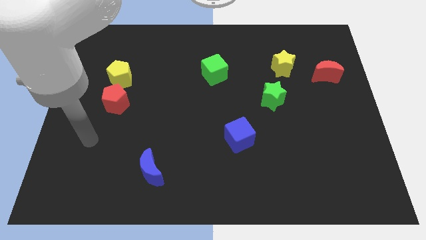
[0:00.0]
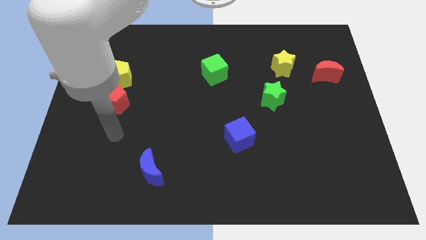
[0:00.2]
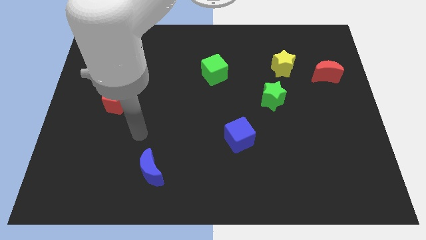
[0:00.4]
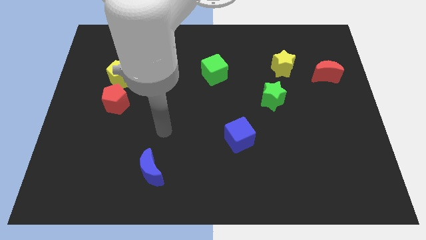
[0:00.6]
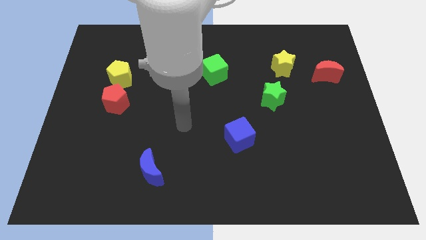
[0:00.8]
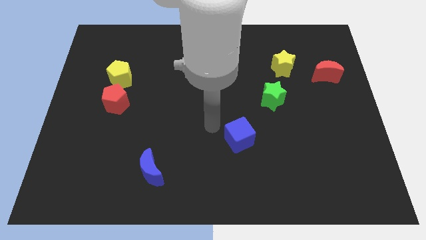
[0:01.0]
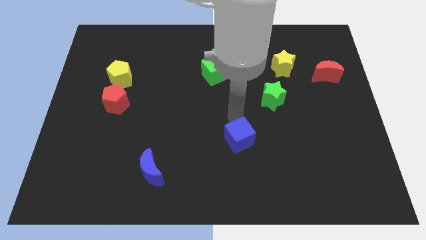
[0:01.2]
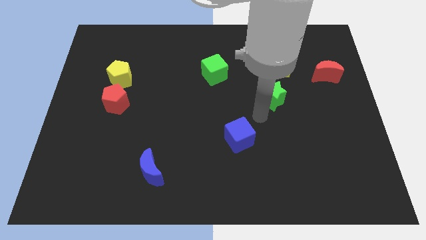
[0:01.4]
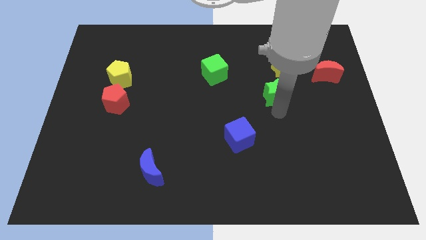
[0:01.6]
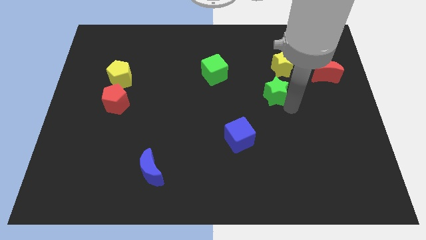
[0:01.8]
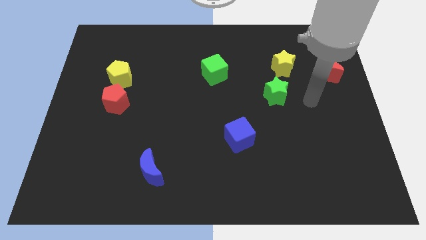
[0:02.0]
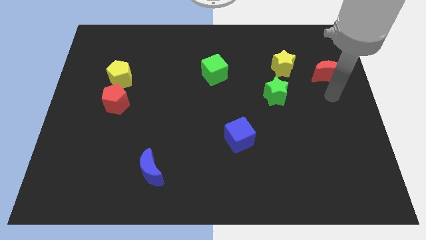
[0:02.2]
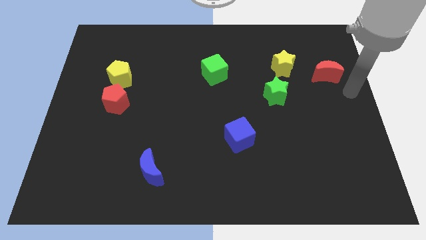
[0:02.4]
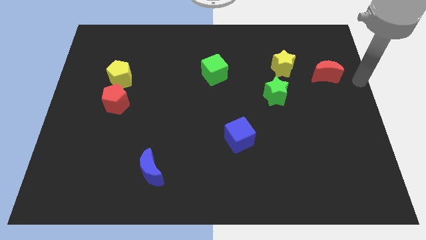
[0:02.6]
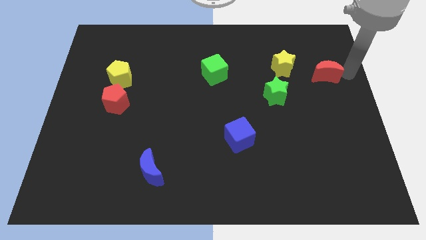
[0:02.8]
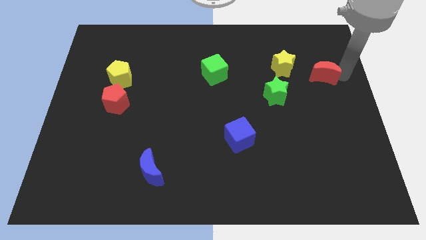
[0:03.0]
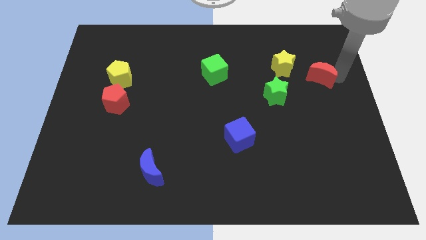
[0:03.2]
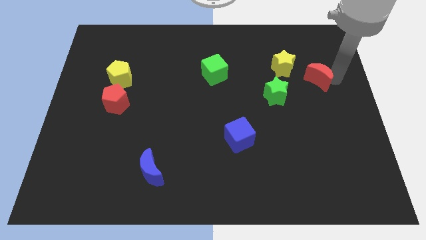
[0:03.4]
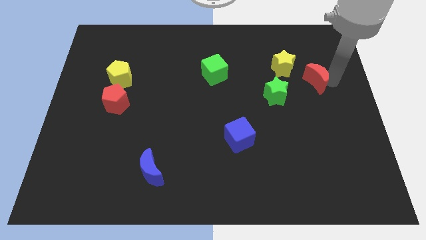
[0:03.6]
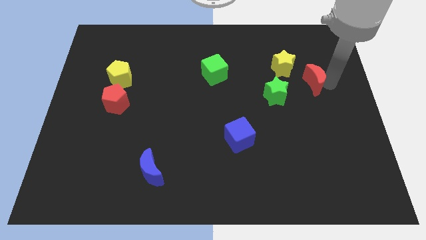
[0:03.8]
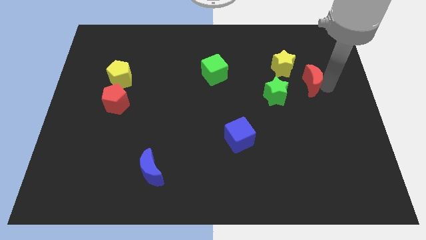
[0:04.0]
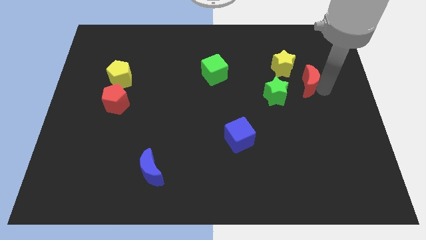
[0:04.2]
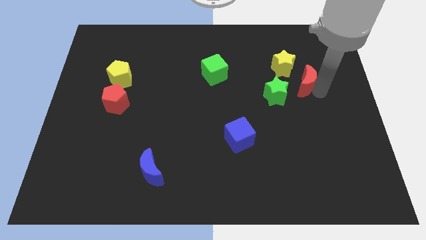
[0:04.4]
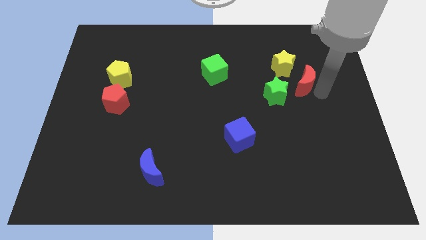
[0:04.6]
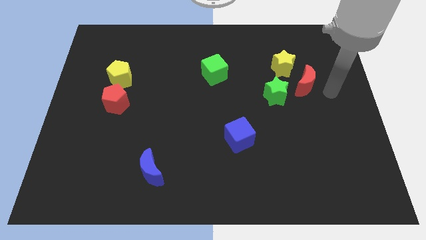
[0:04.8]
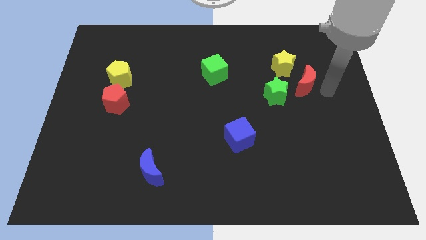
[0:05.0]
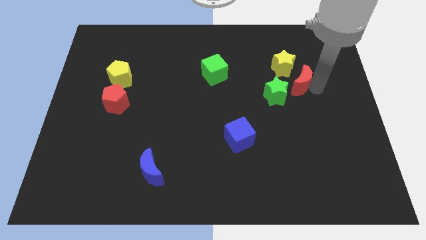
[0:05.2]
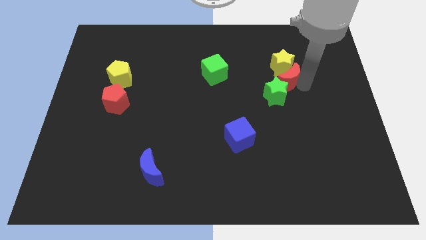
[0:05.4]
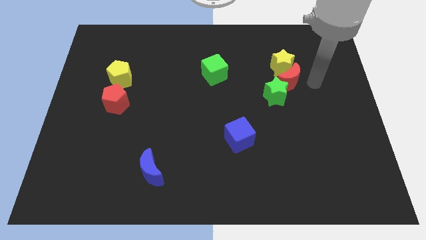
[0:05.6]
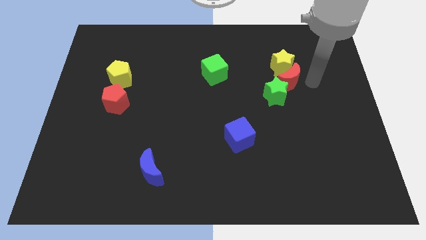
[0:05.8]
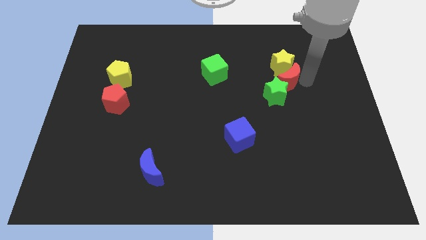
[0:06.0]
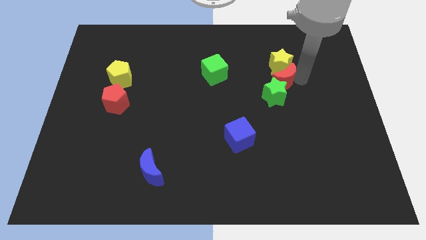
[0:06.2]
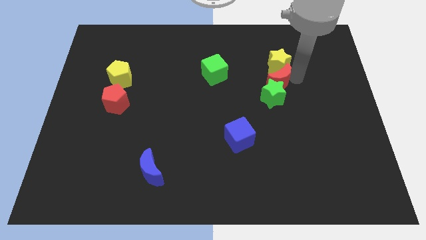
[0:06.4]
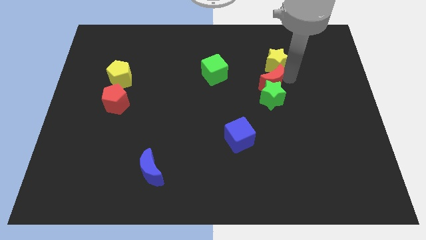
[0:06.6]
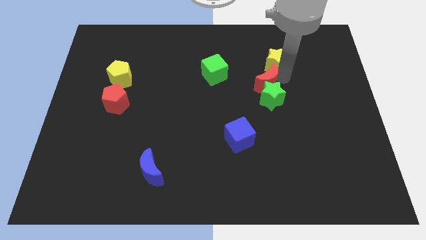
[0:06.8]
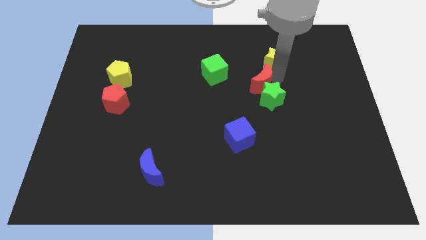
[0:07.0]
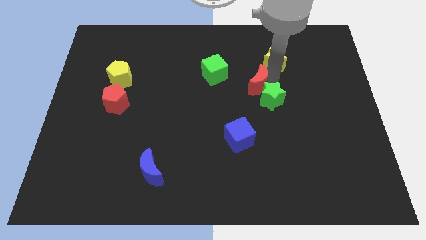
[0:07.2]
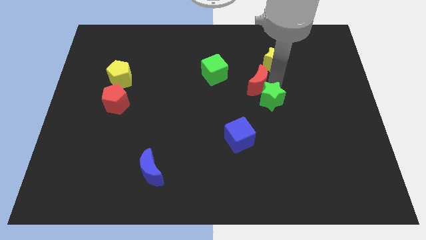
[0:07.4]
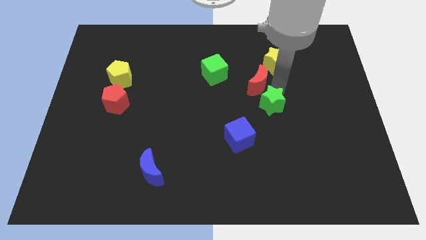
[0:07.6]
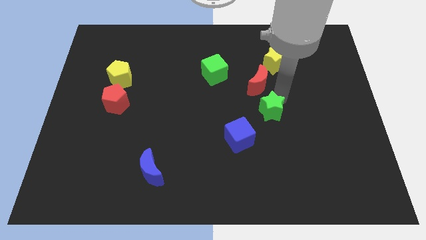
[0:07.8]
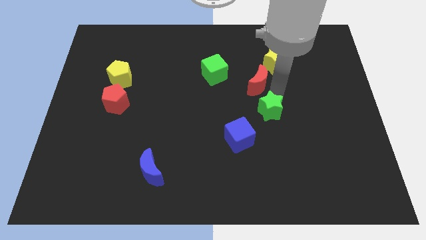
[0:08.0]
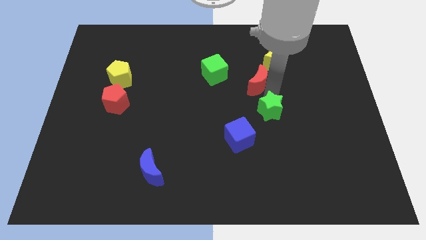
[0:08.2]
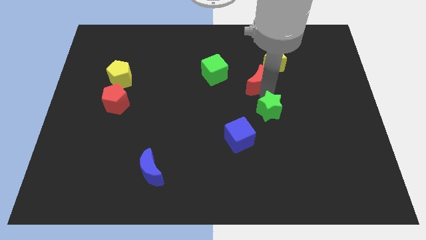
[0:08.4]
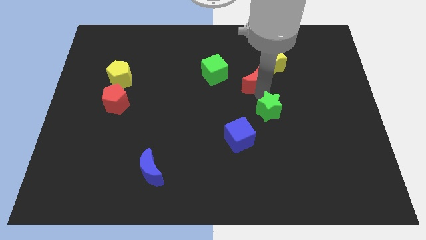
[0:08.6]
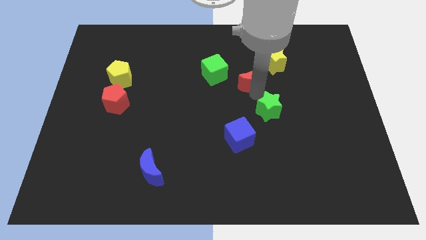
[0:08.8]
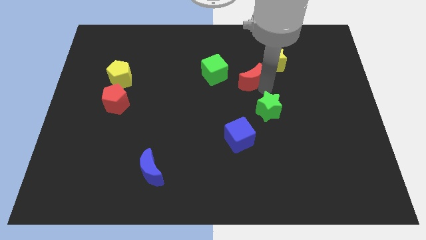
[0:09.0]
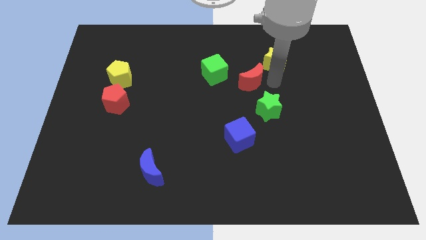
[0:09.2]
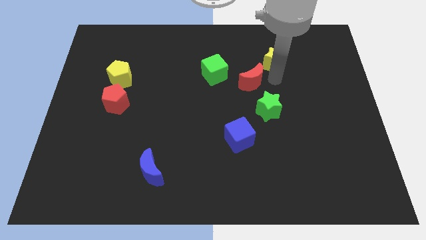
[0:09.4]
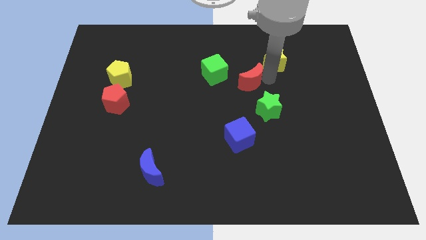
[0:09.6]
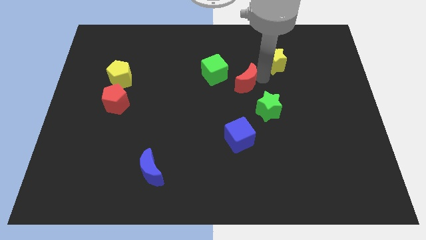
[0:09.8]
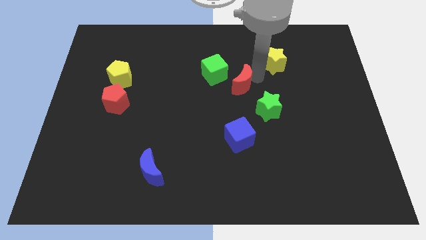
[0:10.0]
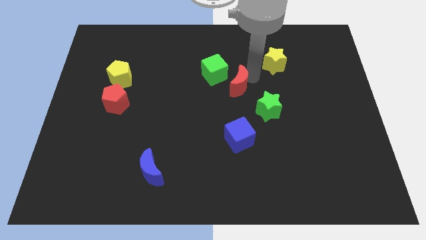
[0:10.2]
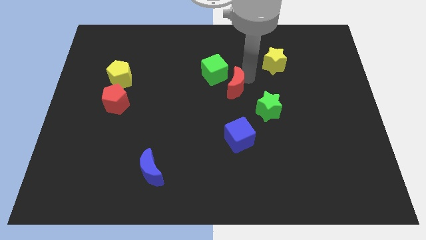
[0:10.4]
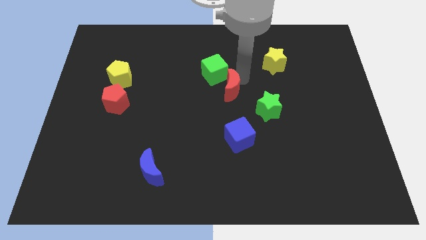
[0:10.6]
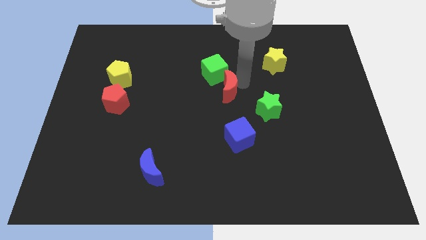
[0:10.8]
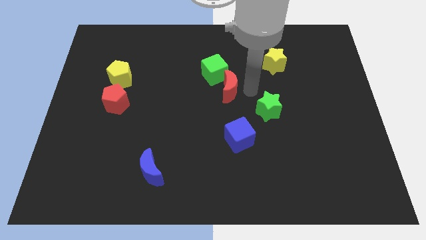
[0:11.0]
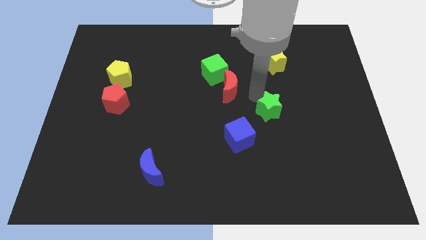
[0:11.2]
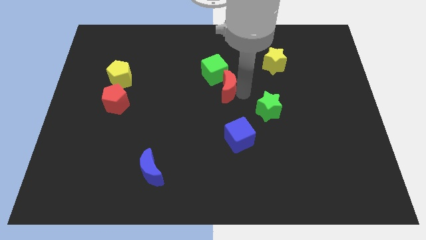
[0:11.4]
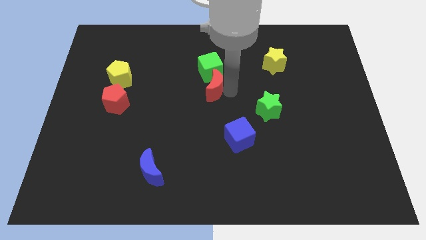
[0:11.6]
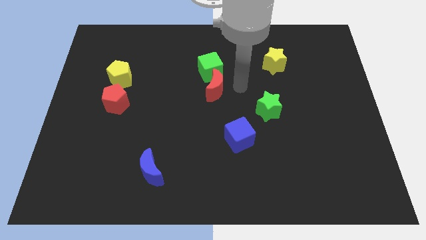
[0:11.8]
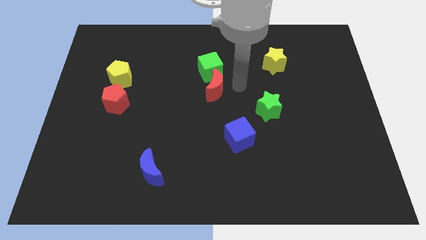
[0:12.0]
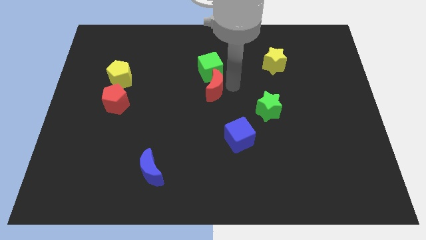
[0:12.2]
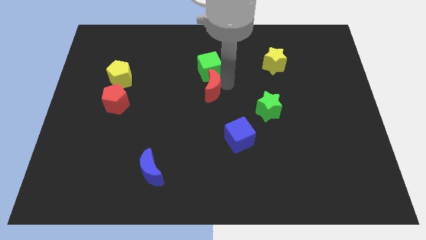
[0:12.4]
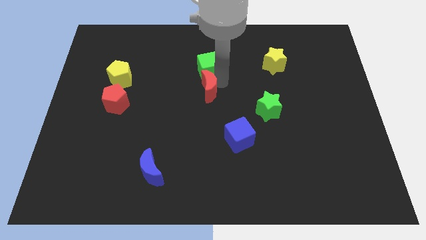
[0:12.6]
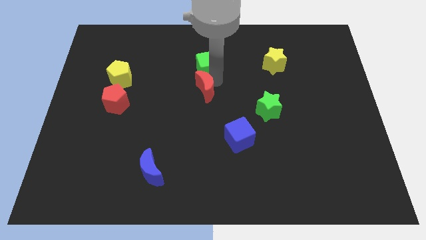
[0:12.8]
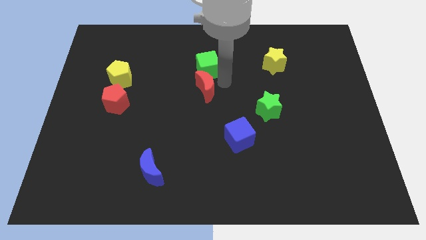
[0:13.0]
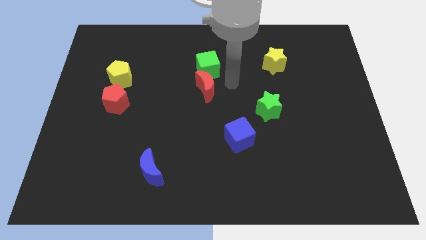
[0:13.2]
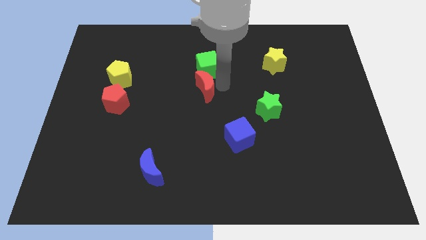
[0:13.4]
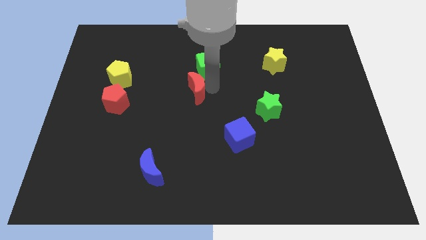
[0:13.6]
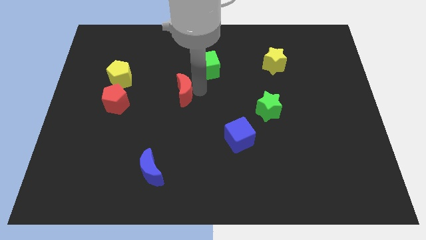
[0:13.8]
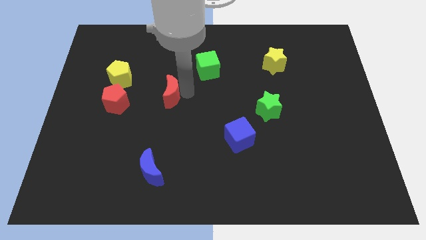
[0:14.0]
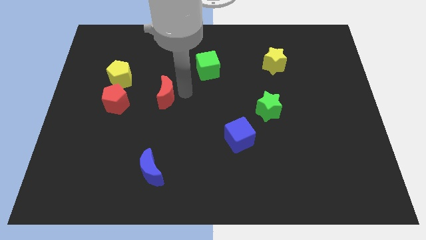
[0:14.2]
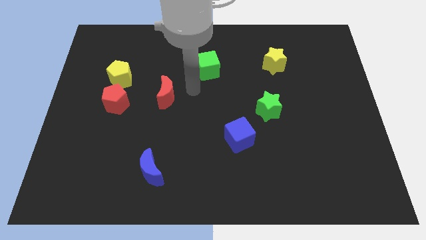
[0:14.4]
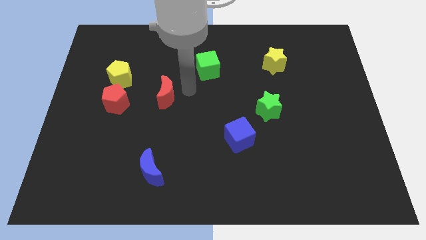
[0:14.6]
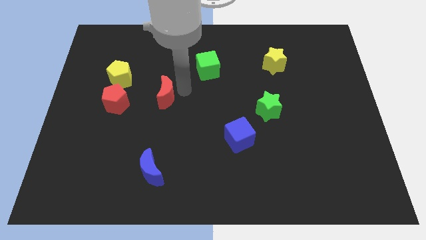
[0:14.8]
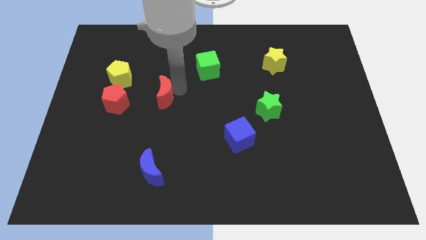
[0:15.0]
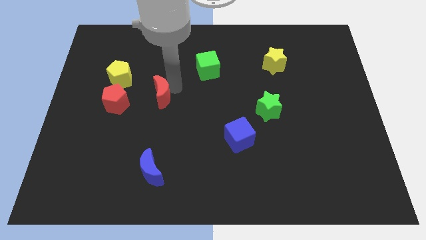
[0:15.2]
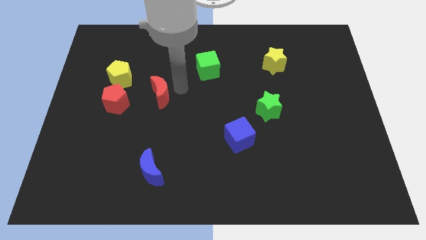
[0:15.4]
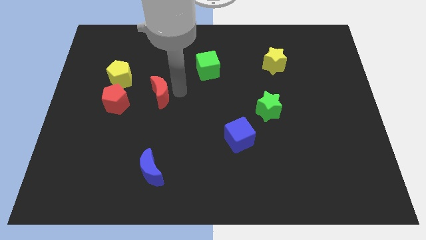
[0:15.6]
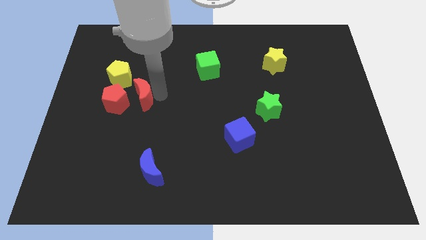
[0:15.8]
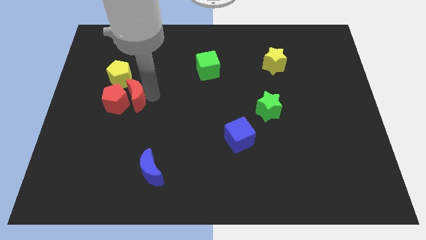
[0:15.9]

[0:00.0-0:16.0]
push the red moon to the red pentagon
